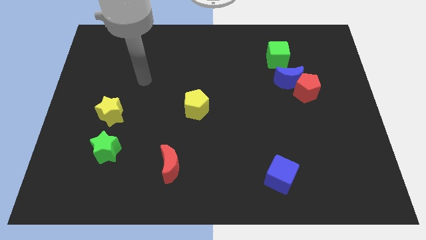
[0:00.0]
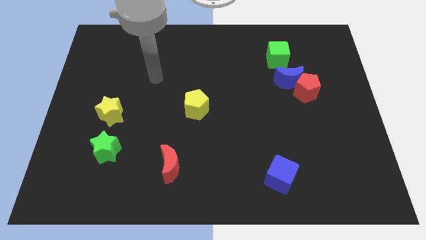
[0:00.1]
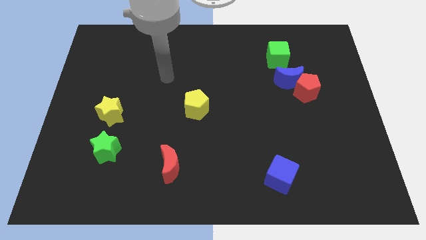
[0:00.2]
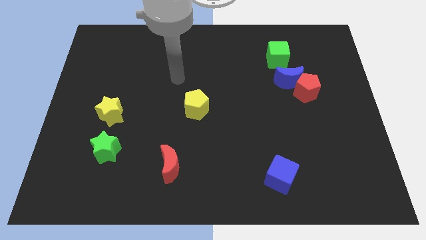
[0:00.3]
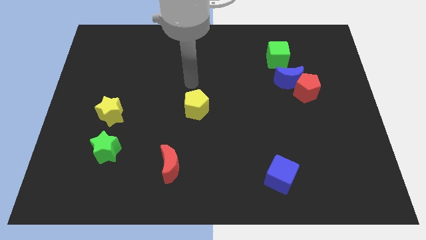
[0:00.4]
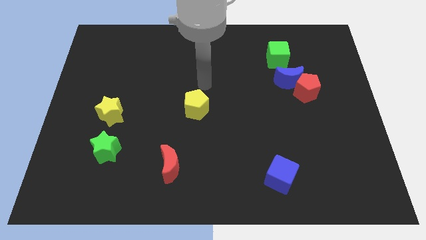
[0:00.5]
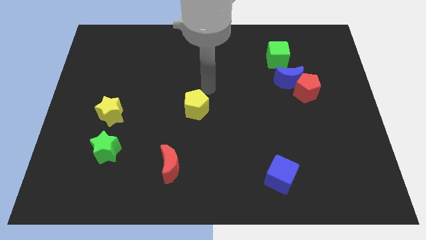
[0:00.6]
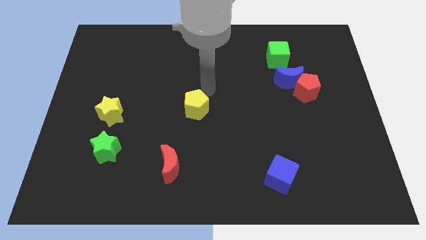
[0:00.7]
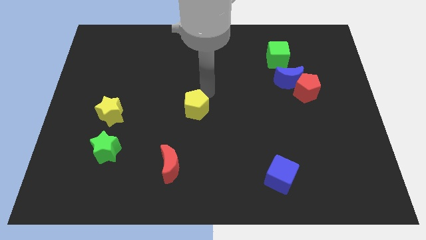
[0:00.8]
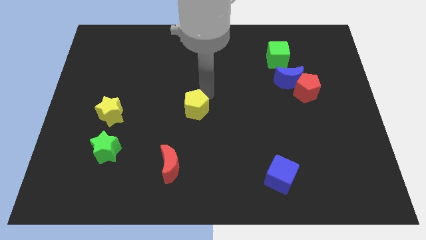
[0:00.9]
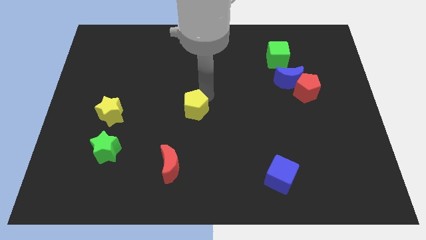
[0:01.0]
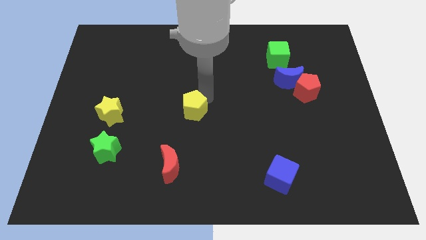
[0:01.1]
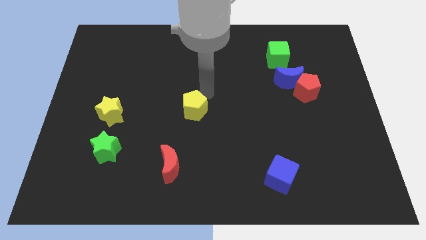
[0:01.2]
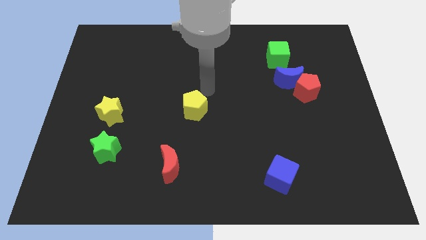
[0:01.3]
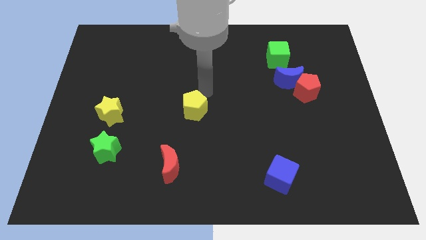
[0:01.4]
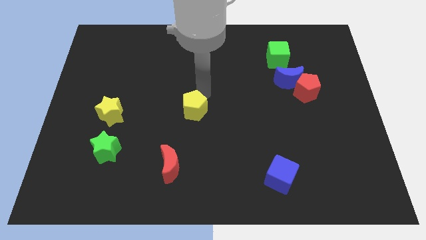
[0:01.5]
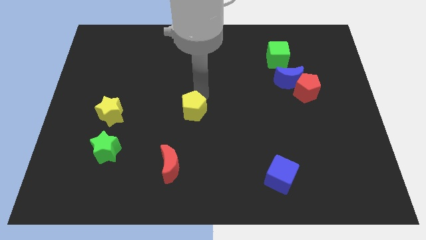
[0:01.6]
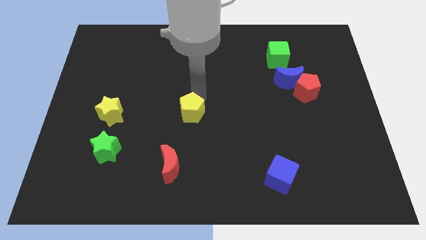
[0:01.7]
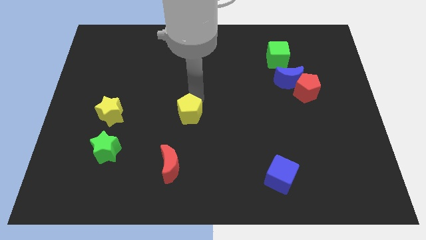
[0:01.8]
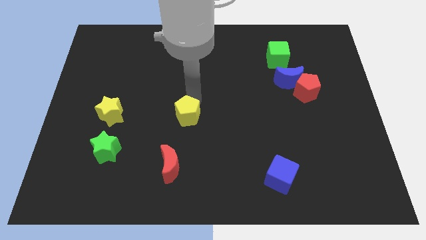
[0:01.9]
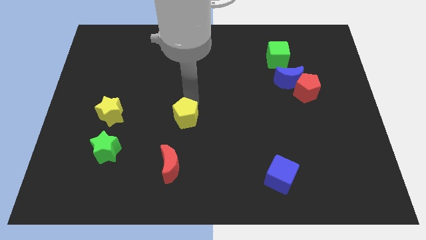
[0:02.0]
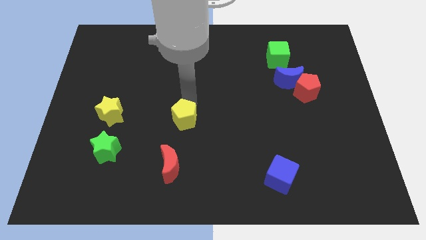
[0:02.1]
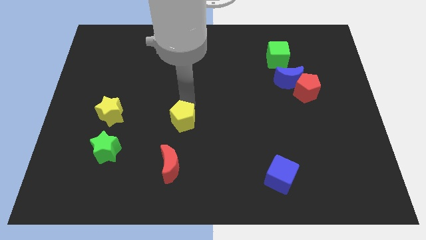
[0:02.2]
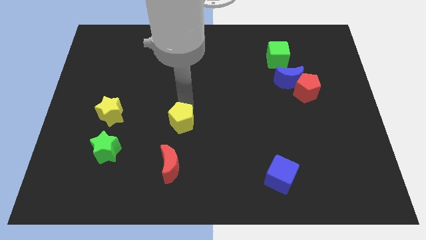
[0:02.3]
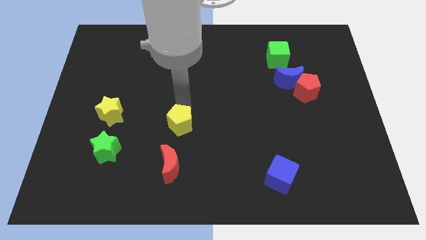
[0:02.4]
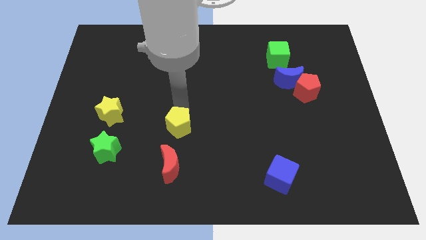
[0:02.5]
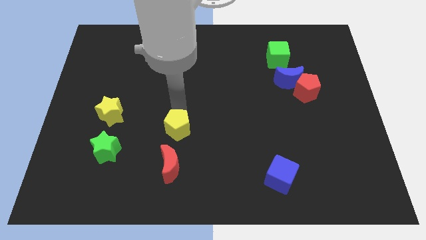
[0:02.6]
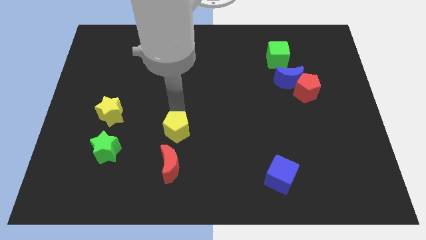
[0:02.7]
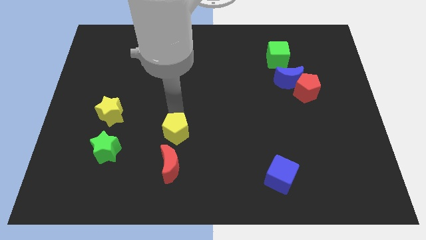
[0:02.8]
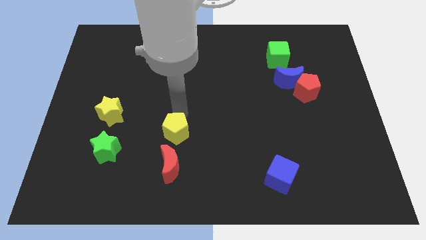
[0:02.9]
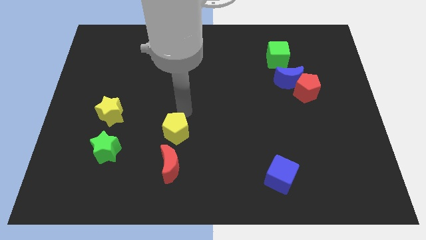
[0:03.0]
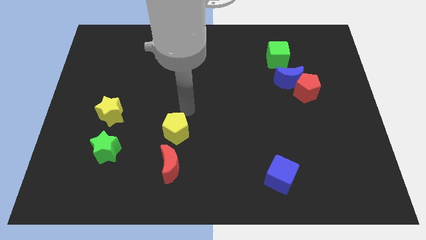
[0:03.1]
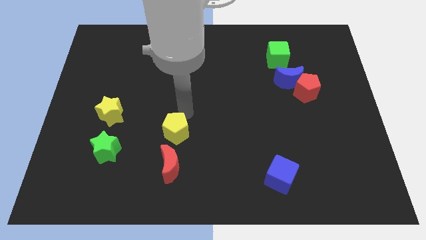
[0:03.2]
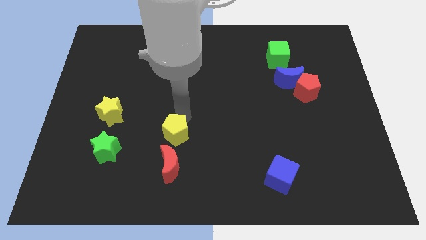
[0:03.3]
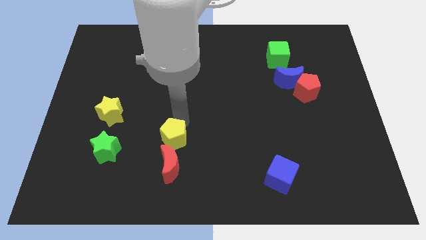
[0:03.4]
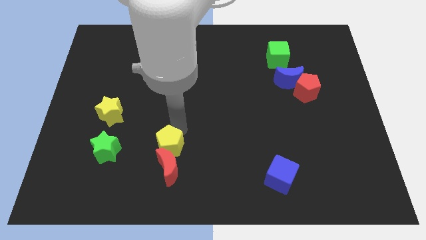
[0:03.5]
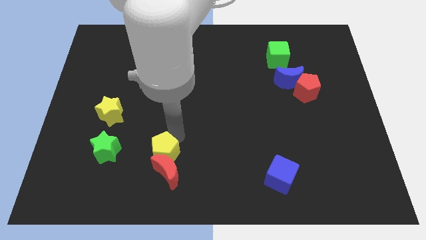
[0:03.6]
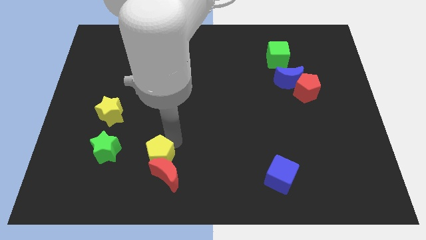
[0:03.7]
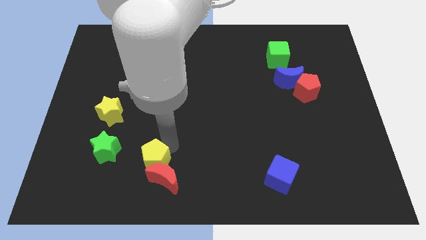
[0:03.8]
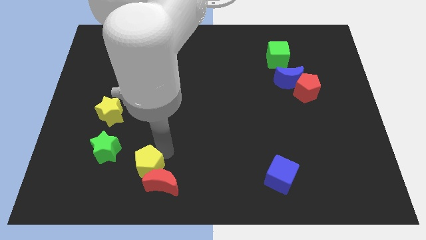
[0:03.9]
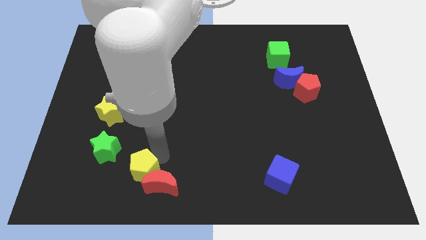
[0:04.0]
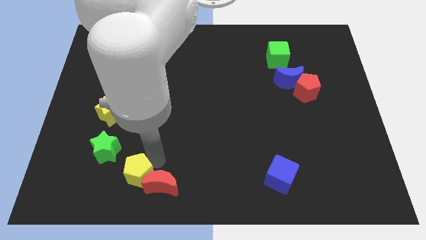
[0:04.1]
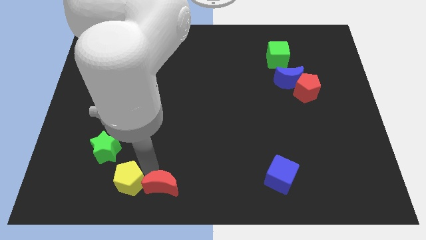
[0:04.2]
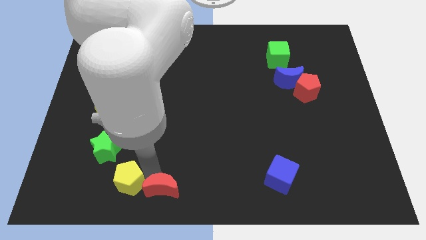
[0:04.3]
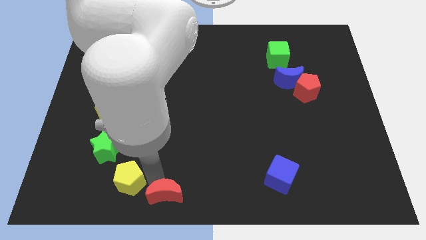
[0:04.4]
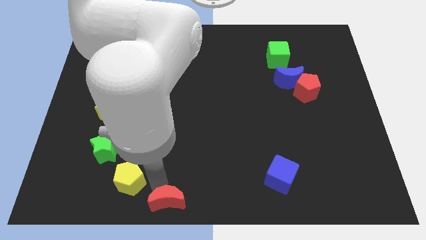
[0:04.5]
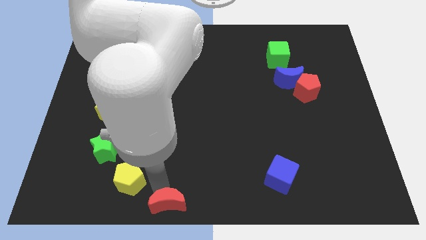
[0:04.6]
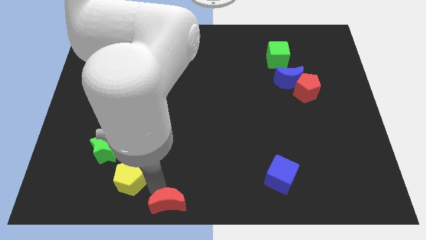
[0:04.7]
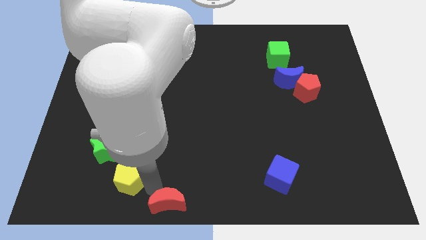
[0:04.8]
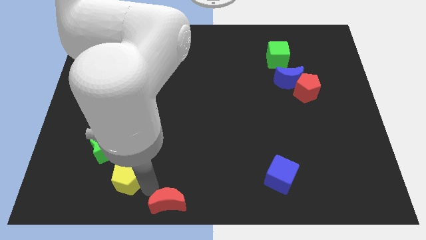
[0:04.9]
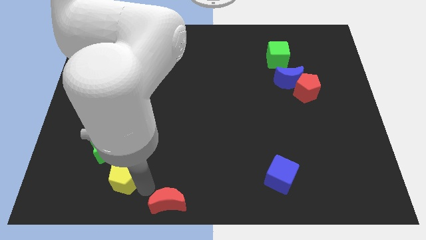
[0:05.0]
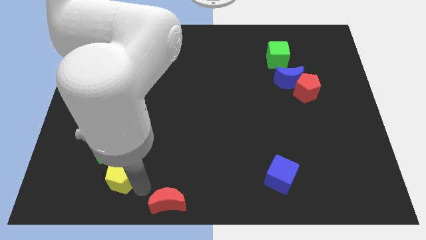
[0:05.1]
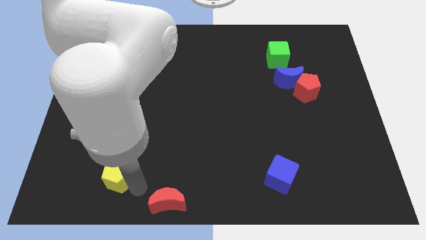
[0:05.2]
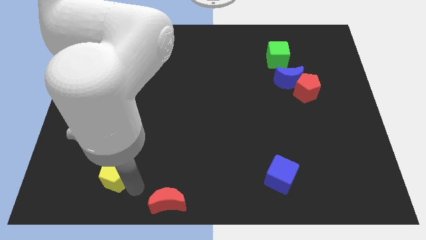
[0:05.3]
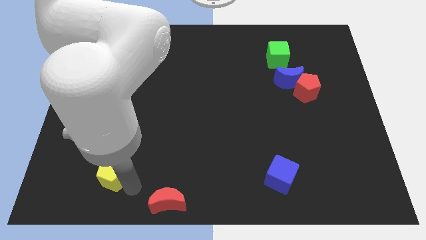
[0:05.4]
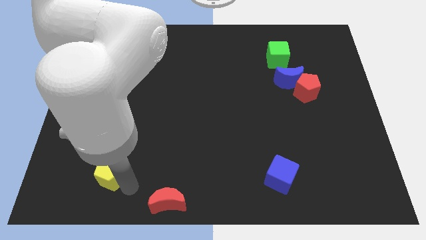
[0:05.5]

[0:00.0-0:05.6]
push the yellow pentagon below the yellow star

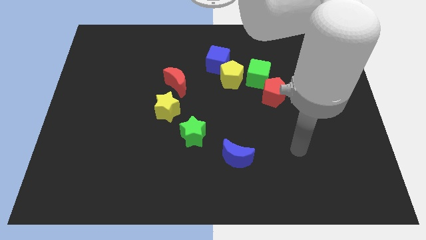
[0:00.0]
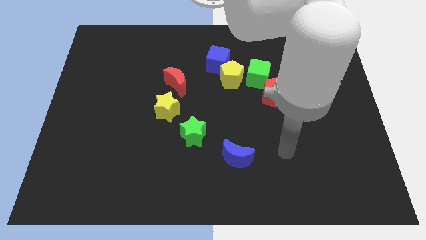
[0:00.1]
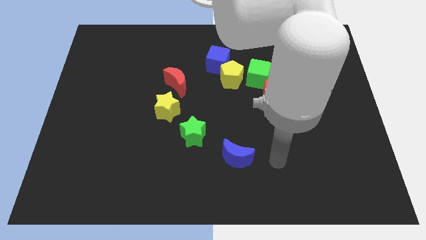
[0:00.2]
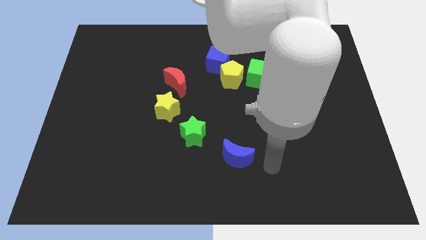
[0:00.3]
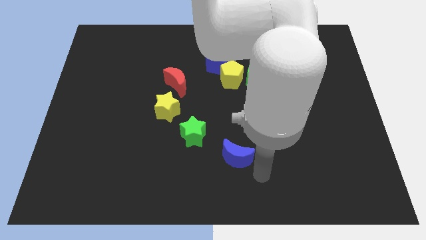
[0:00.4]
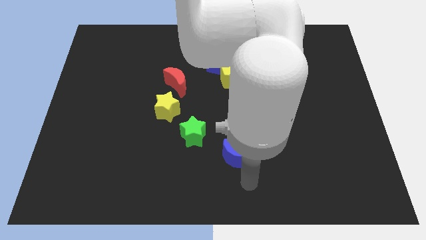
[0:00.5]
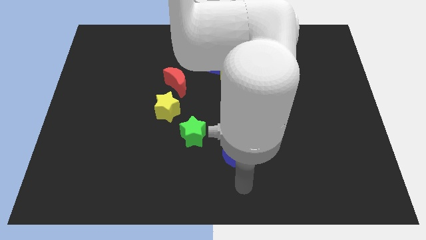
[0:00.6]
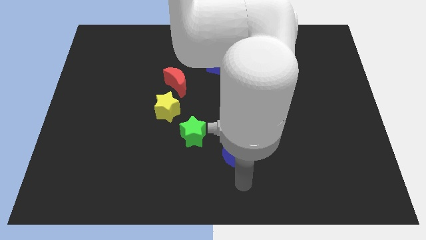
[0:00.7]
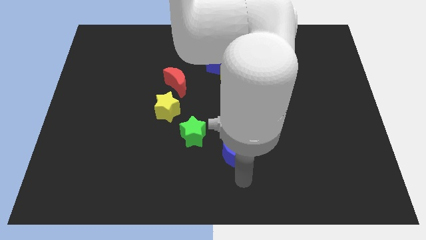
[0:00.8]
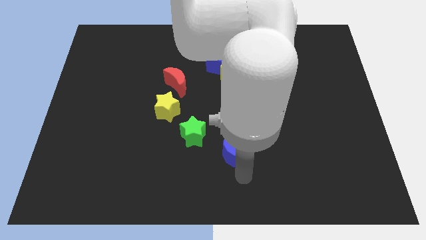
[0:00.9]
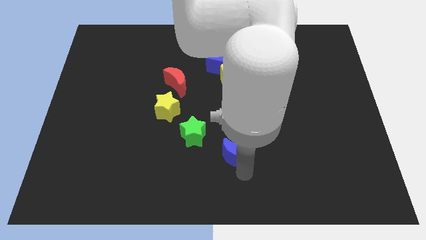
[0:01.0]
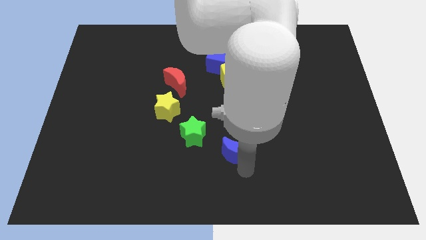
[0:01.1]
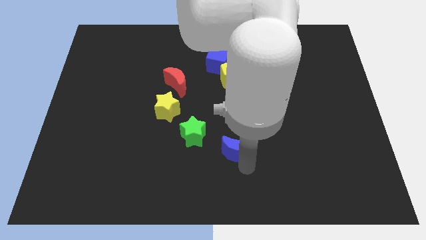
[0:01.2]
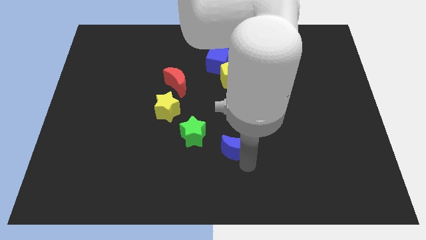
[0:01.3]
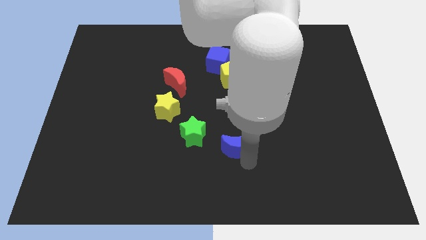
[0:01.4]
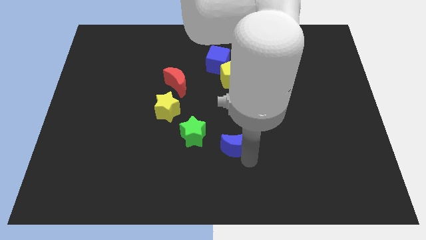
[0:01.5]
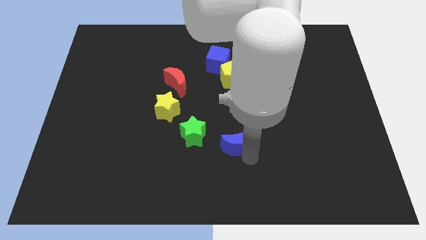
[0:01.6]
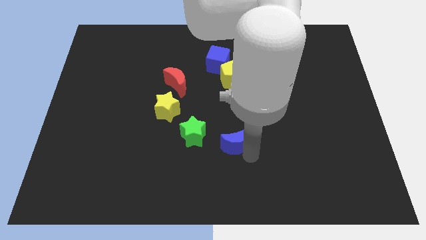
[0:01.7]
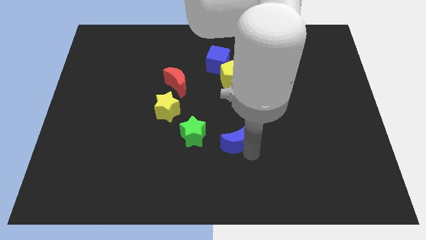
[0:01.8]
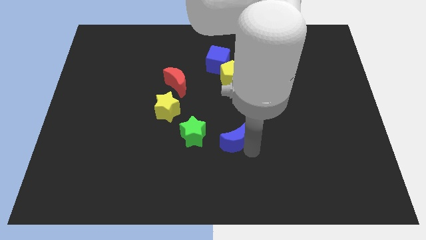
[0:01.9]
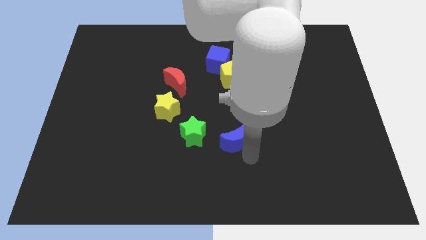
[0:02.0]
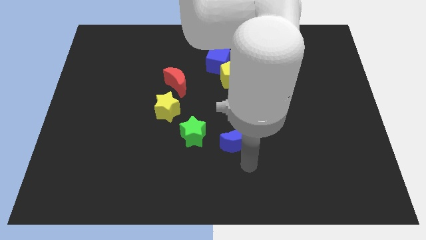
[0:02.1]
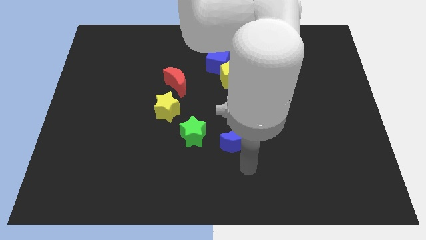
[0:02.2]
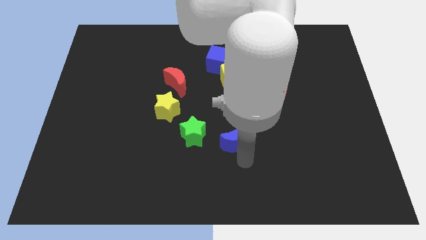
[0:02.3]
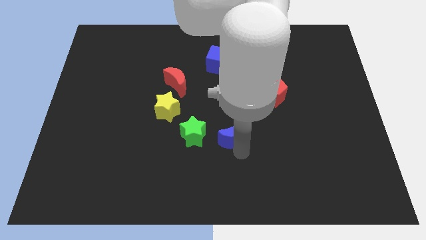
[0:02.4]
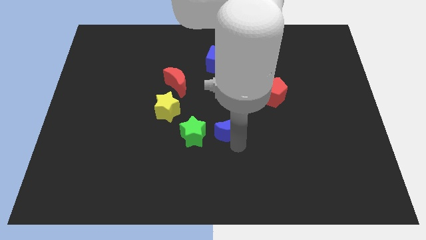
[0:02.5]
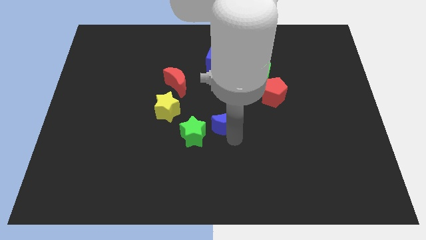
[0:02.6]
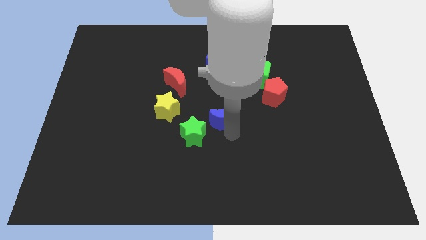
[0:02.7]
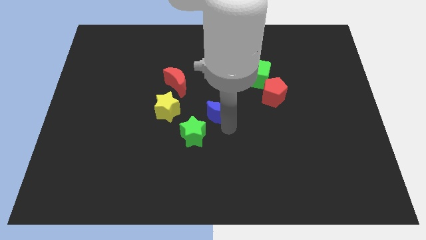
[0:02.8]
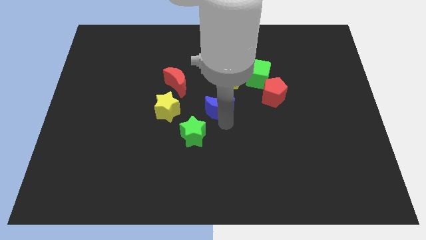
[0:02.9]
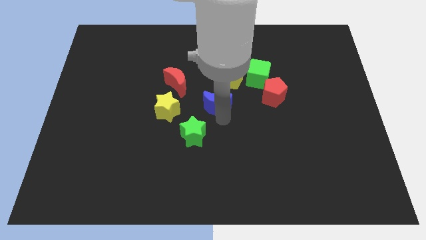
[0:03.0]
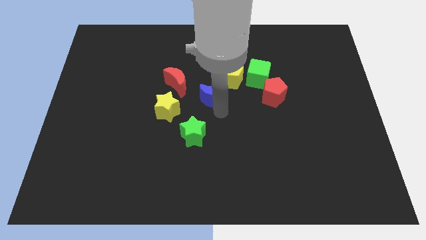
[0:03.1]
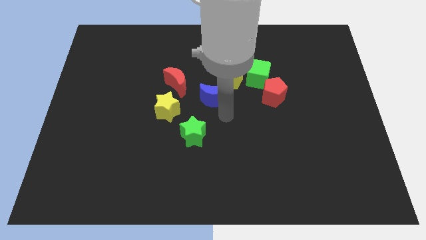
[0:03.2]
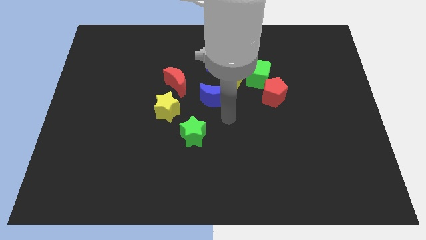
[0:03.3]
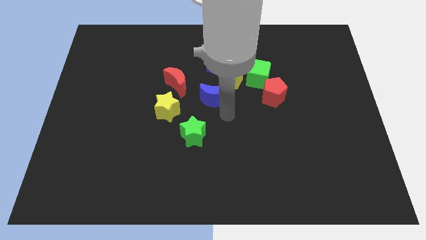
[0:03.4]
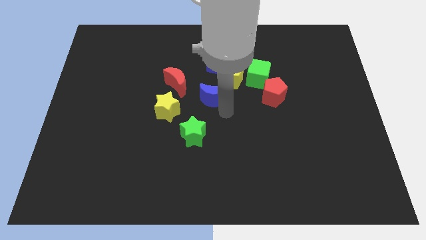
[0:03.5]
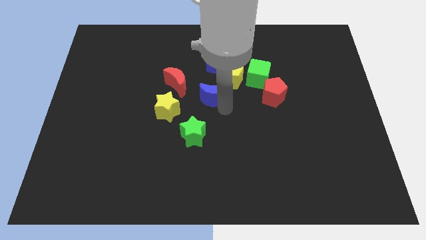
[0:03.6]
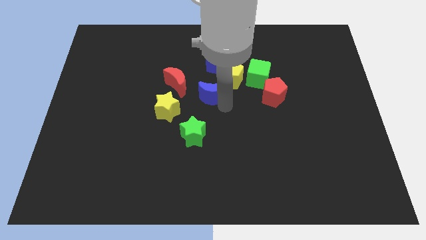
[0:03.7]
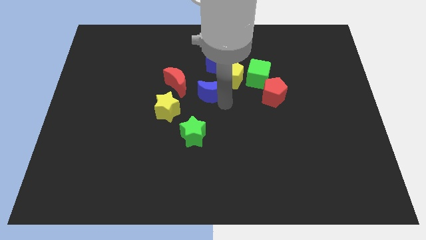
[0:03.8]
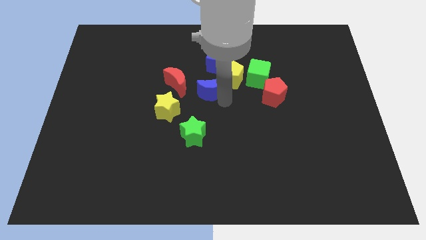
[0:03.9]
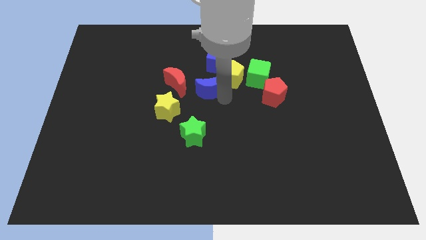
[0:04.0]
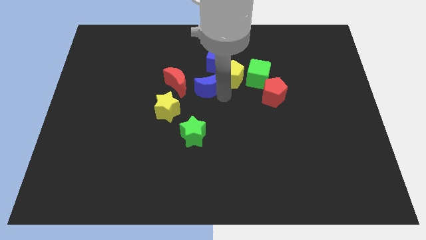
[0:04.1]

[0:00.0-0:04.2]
push the blue moon to the bottom left side of the blue cube
